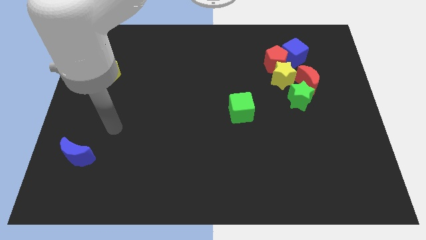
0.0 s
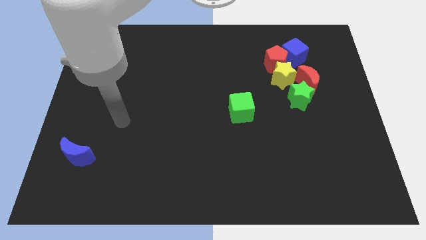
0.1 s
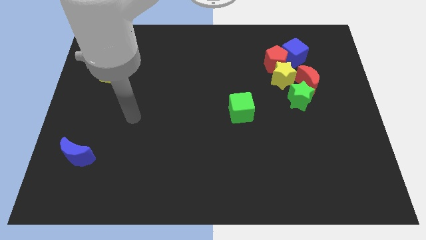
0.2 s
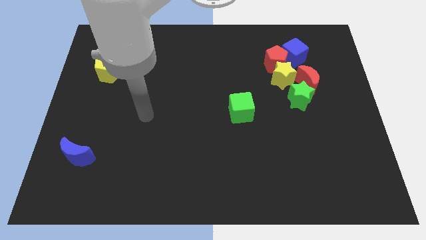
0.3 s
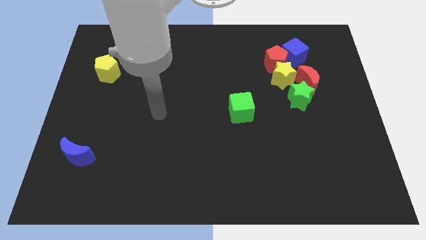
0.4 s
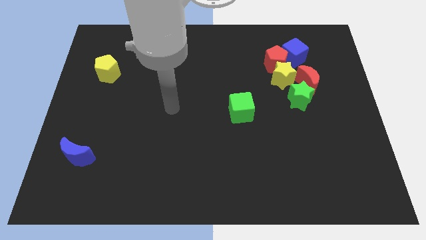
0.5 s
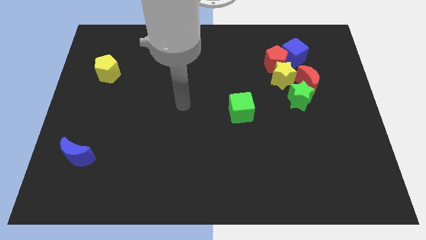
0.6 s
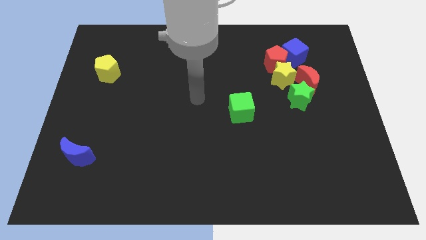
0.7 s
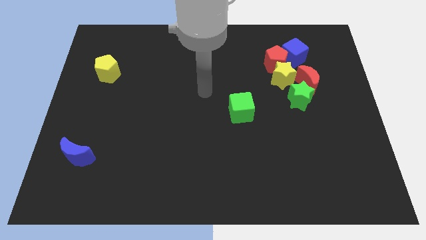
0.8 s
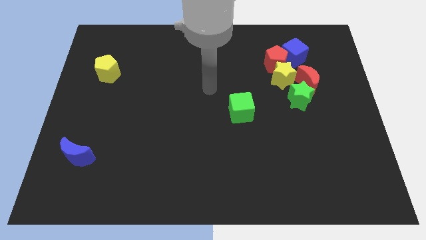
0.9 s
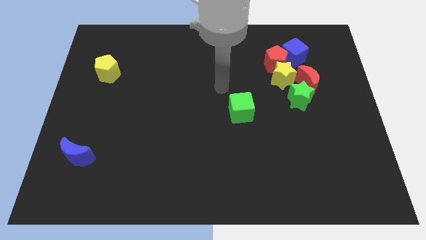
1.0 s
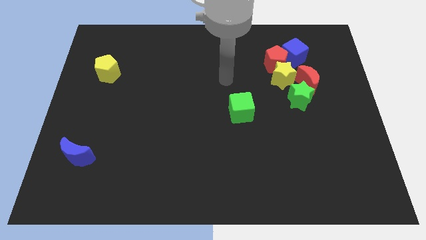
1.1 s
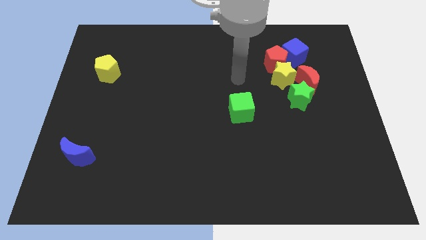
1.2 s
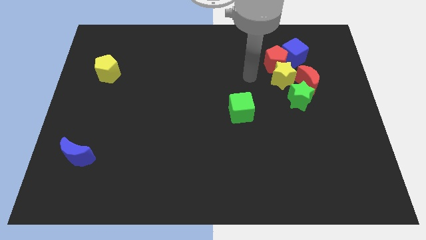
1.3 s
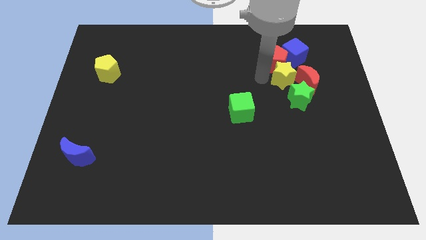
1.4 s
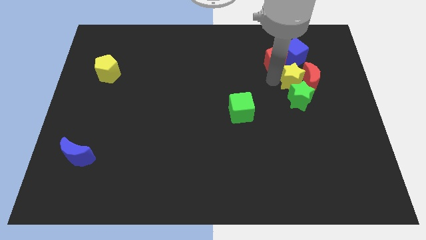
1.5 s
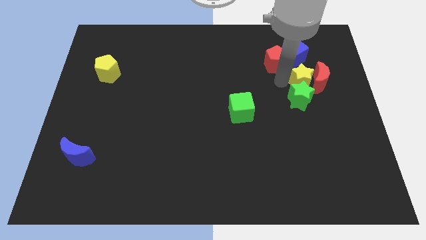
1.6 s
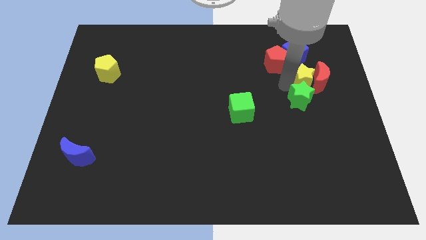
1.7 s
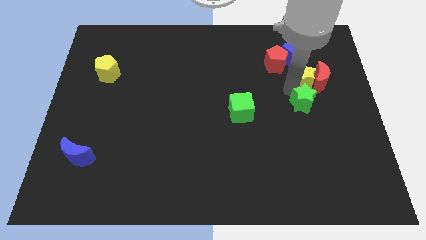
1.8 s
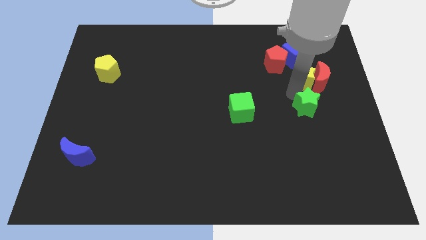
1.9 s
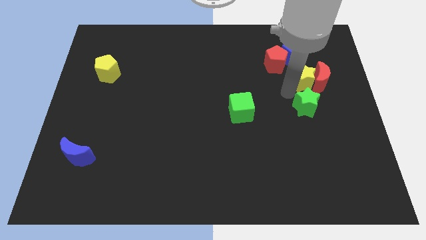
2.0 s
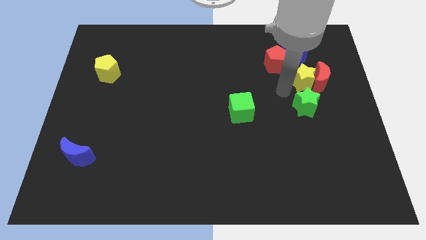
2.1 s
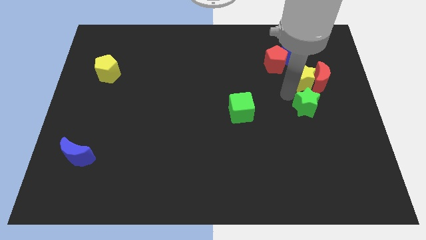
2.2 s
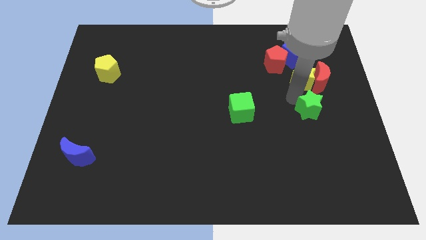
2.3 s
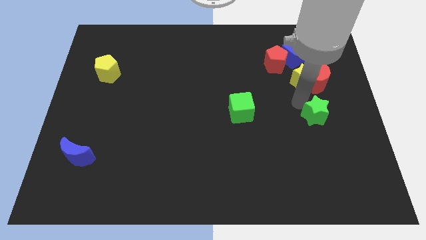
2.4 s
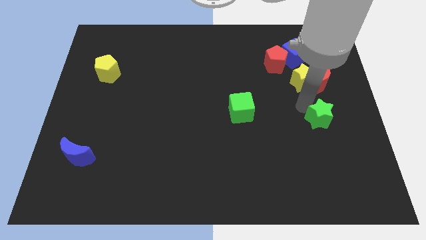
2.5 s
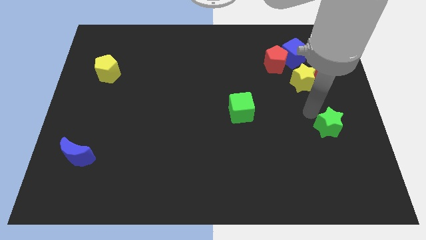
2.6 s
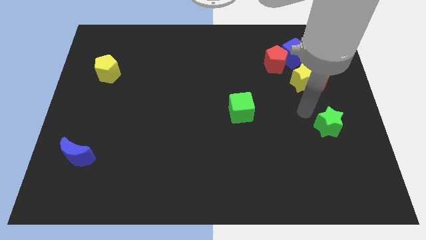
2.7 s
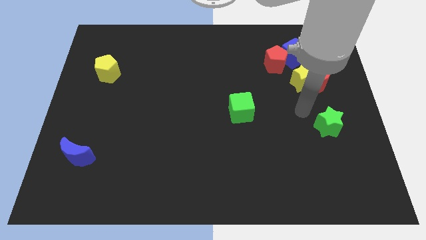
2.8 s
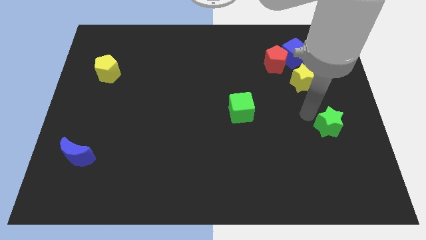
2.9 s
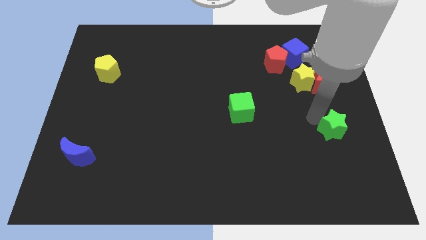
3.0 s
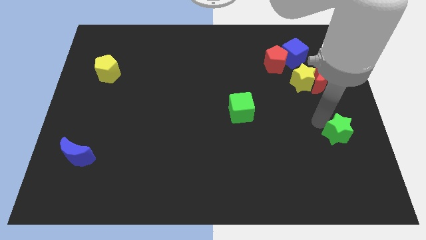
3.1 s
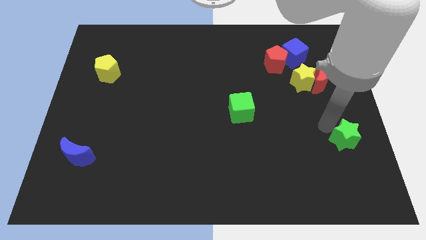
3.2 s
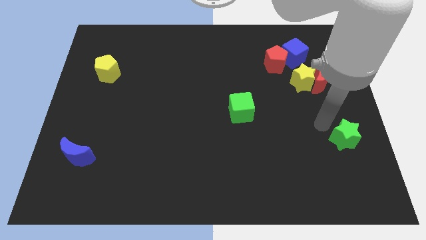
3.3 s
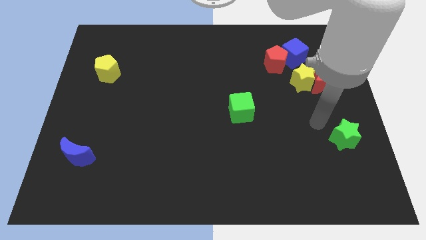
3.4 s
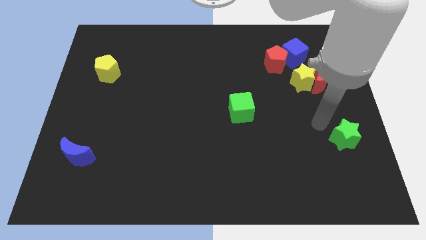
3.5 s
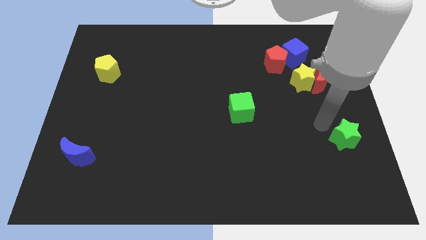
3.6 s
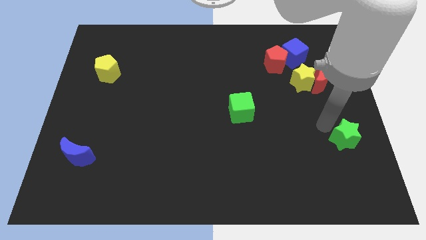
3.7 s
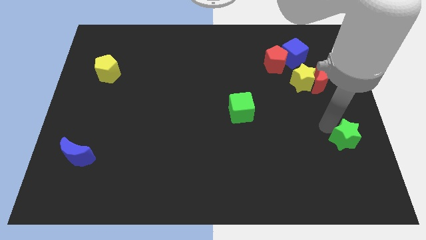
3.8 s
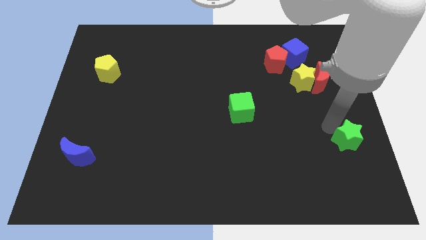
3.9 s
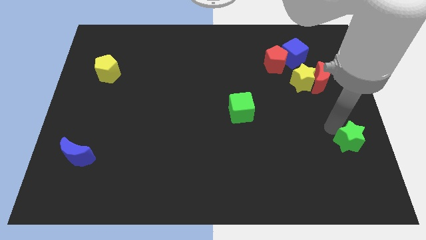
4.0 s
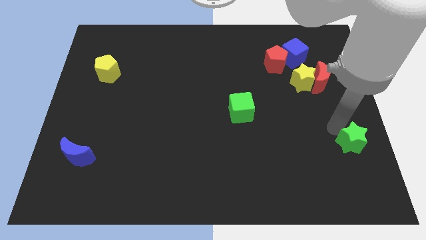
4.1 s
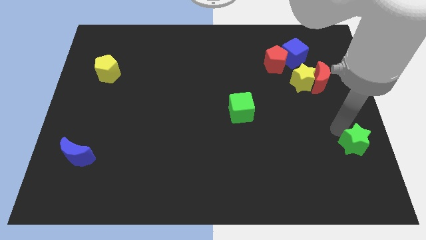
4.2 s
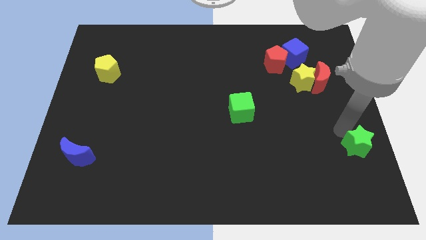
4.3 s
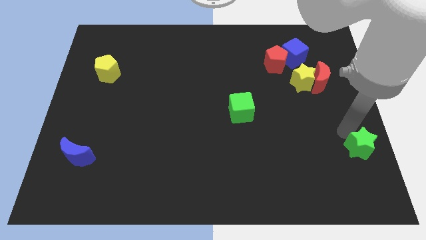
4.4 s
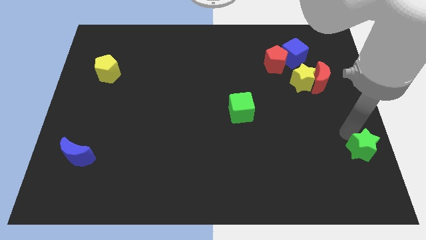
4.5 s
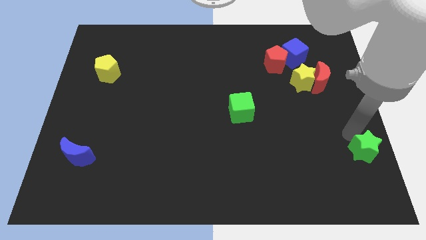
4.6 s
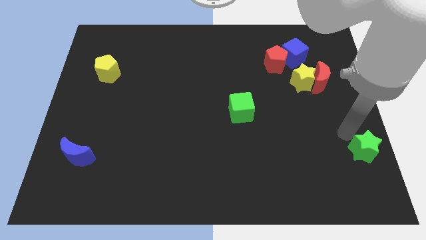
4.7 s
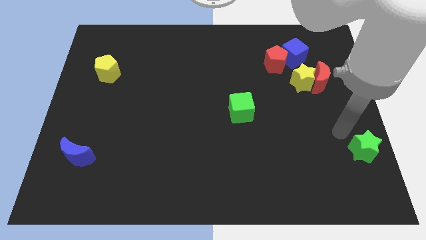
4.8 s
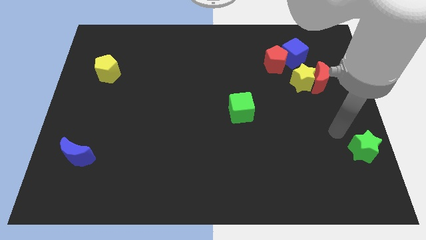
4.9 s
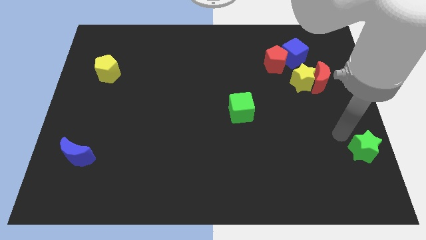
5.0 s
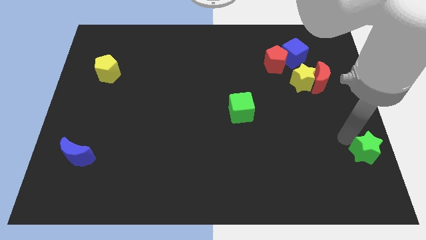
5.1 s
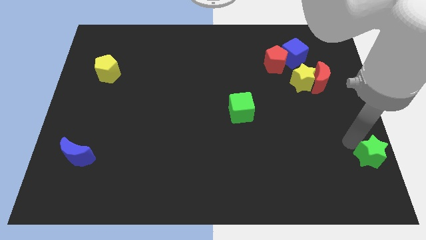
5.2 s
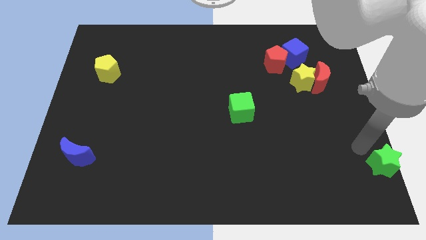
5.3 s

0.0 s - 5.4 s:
put the green star to the bottom right of the board
